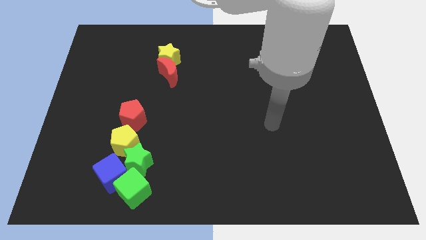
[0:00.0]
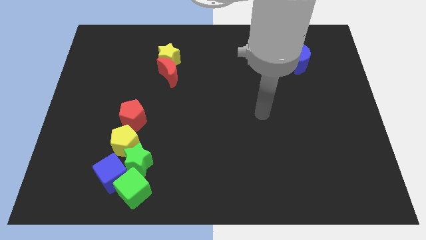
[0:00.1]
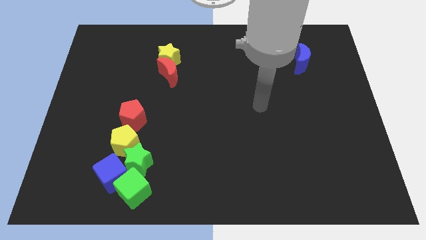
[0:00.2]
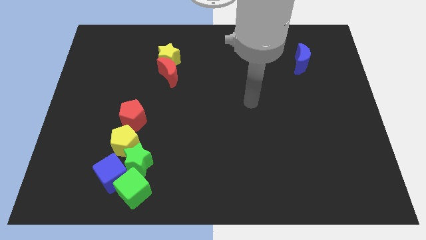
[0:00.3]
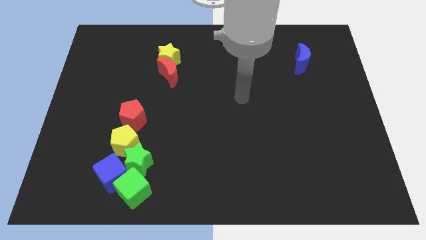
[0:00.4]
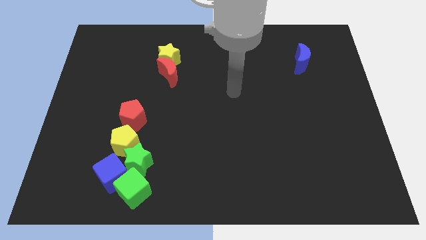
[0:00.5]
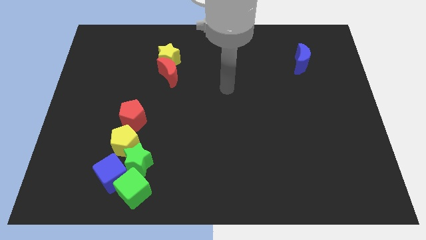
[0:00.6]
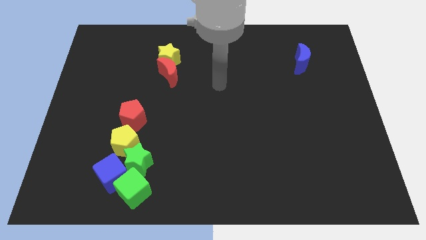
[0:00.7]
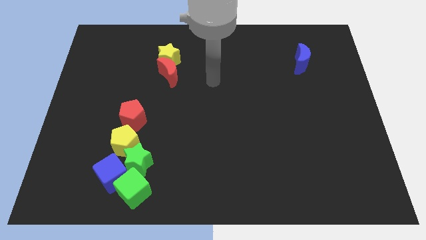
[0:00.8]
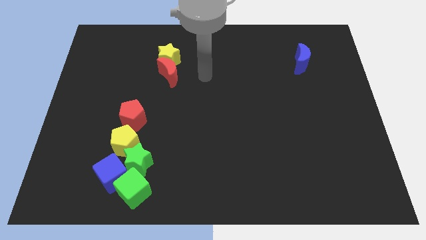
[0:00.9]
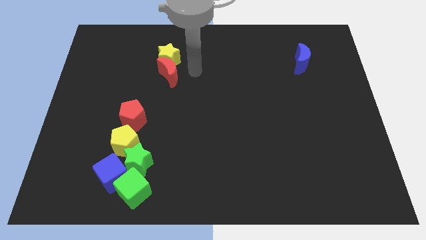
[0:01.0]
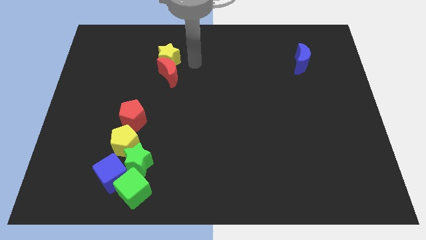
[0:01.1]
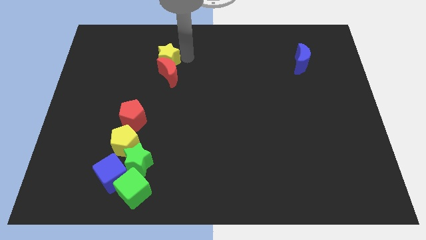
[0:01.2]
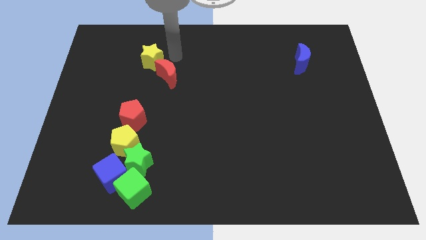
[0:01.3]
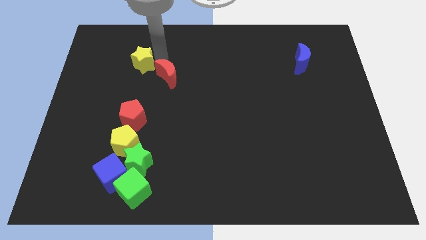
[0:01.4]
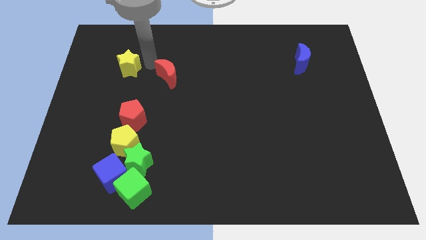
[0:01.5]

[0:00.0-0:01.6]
separate the red moon from the yellow star

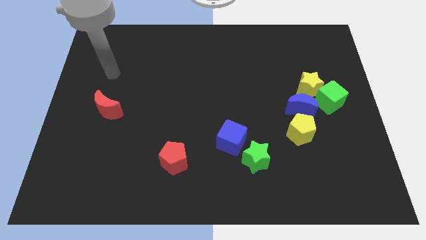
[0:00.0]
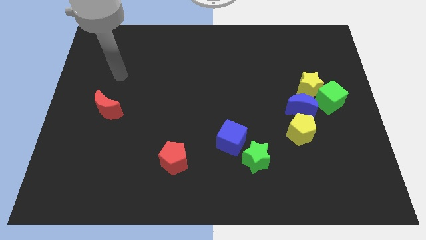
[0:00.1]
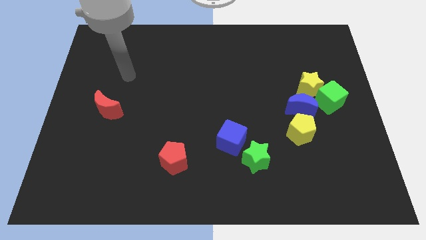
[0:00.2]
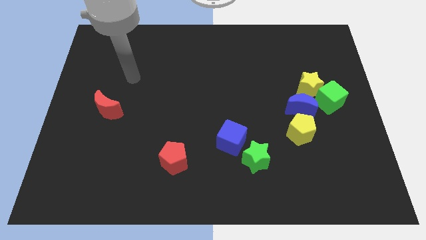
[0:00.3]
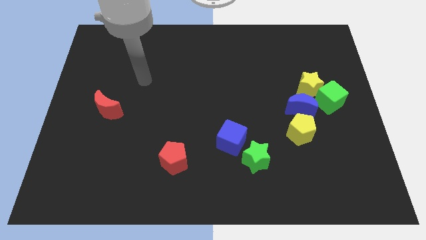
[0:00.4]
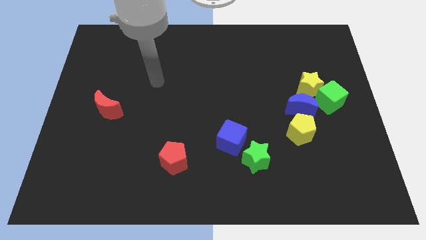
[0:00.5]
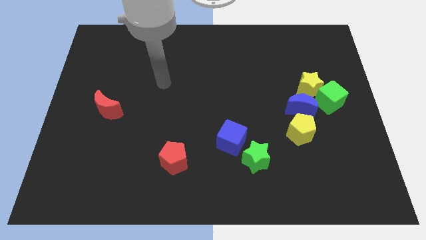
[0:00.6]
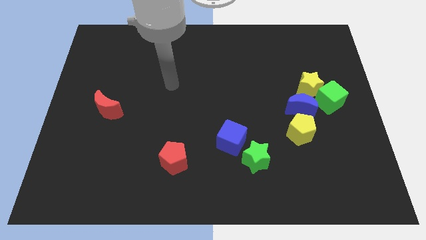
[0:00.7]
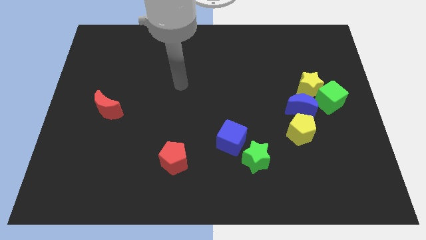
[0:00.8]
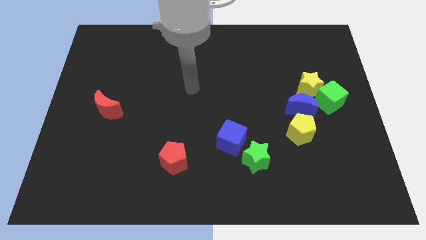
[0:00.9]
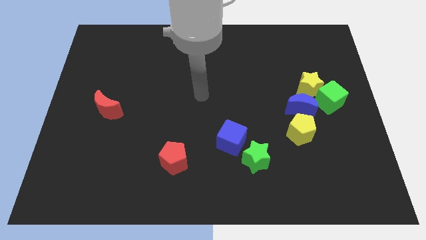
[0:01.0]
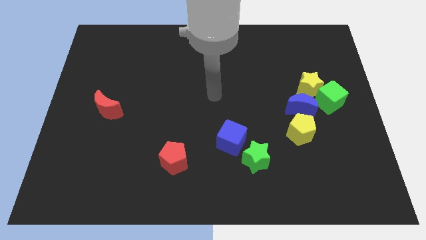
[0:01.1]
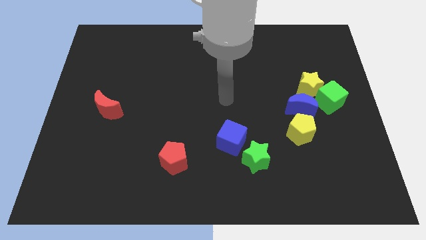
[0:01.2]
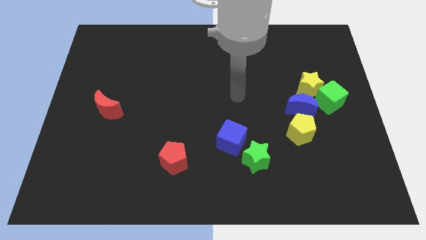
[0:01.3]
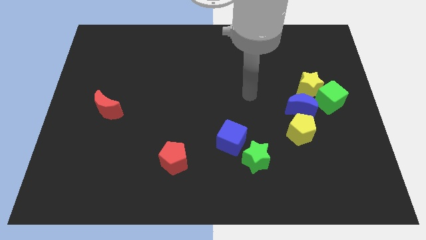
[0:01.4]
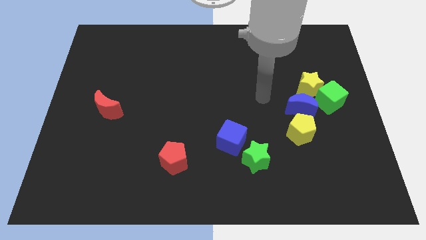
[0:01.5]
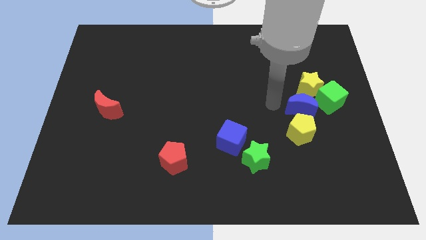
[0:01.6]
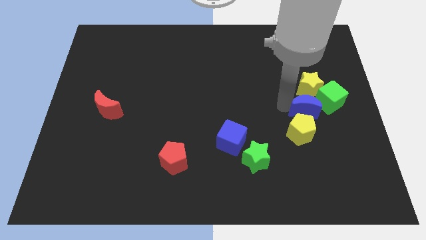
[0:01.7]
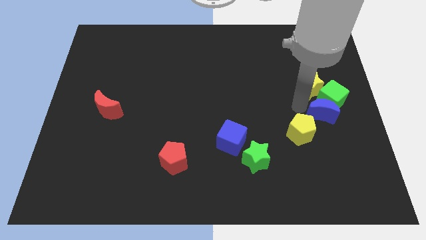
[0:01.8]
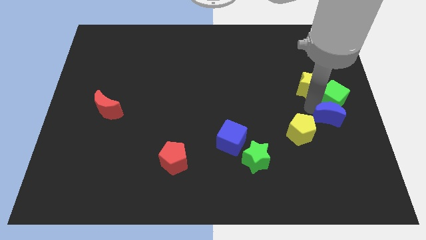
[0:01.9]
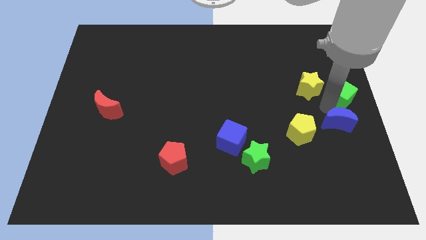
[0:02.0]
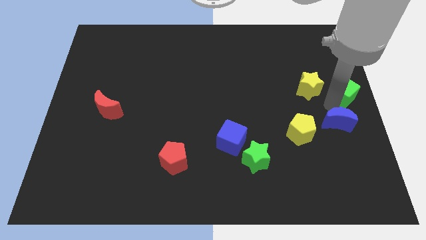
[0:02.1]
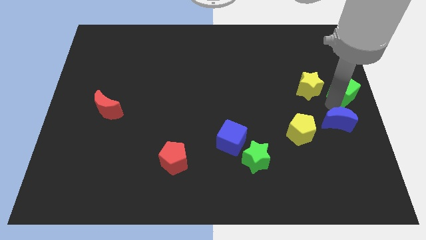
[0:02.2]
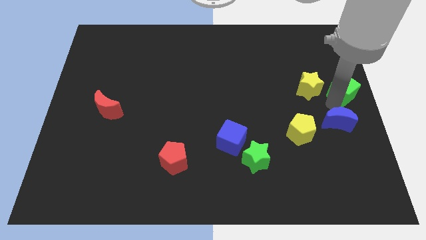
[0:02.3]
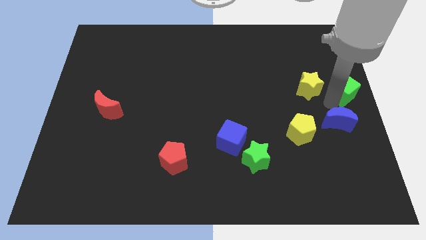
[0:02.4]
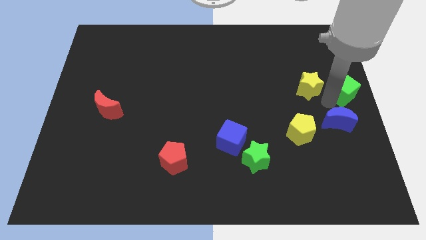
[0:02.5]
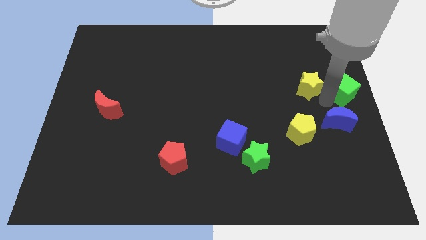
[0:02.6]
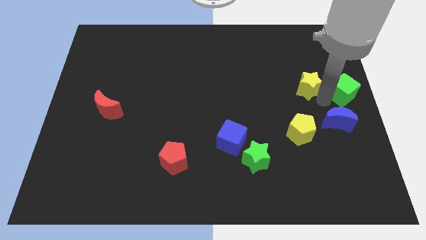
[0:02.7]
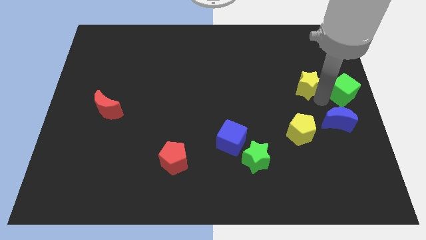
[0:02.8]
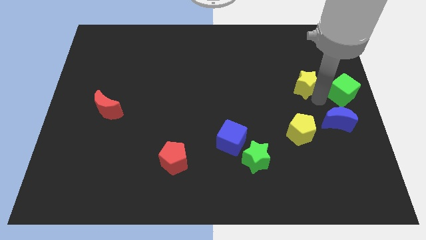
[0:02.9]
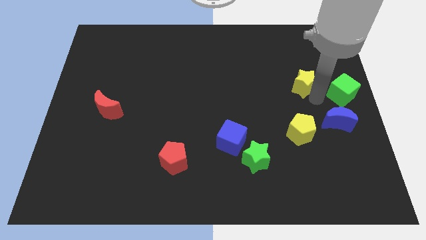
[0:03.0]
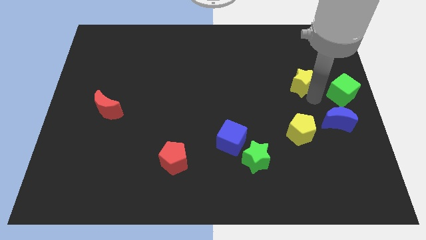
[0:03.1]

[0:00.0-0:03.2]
move the yellow star away from the green cube and blue moon

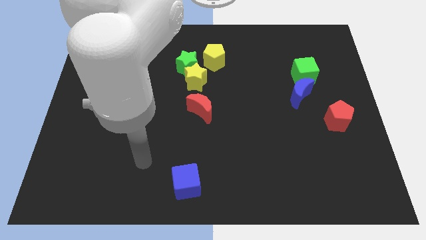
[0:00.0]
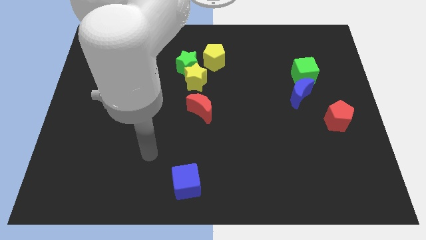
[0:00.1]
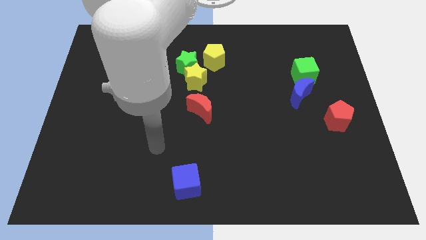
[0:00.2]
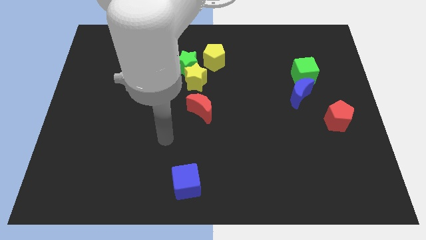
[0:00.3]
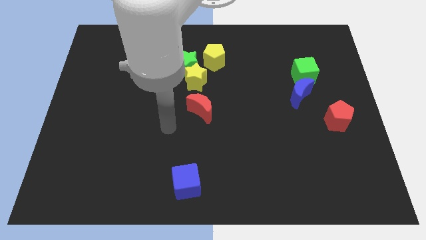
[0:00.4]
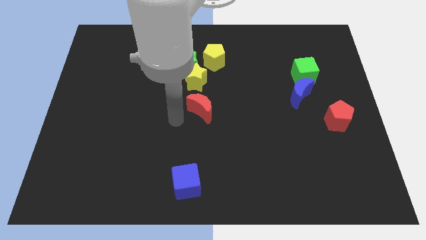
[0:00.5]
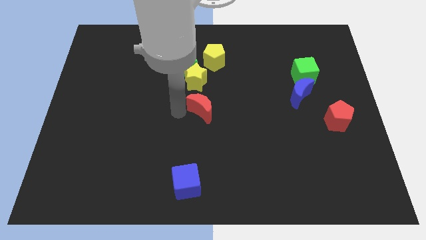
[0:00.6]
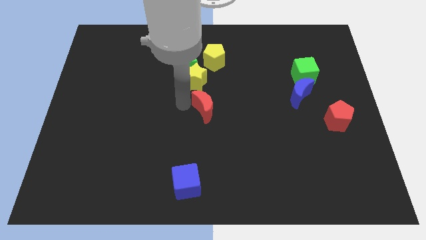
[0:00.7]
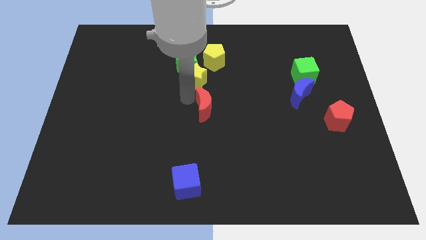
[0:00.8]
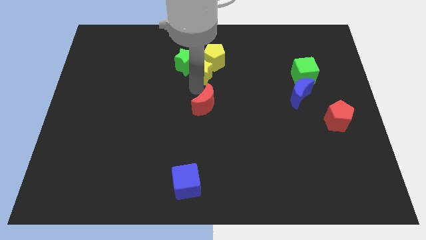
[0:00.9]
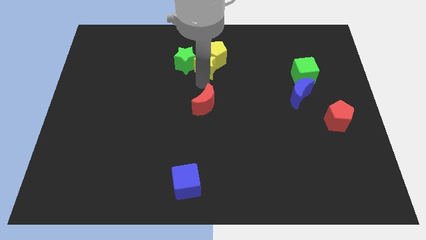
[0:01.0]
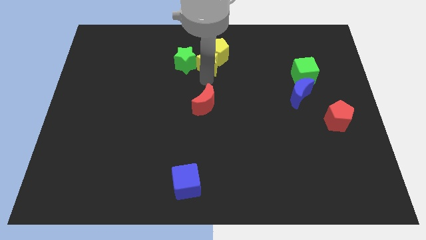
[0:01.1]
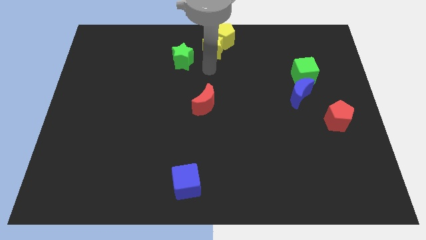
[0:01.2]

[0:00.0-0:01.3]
pull the green star apart from the yellow star and yellow pentagon

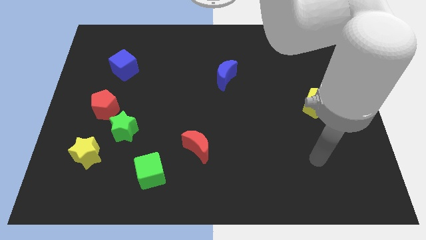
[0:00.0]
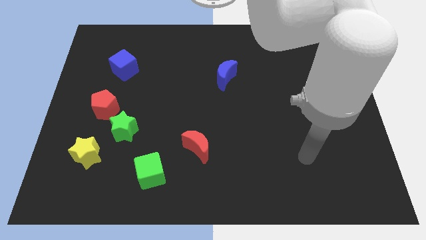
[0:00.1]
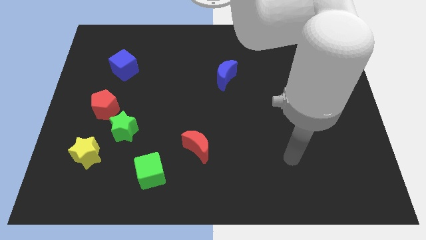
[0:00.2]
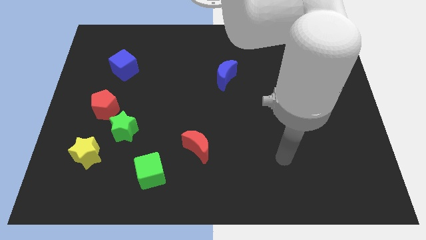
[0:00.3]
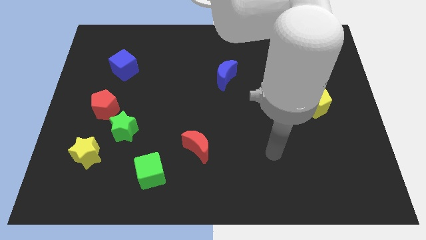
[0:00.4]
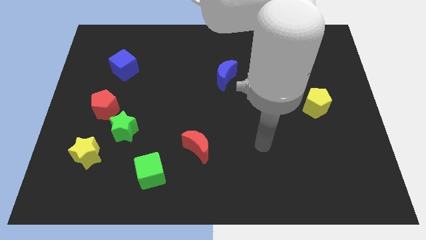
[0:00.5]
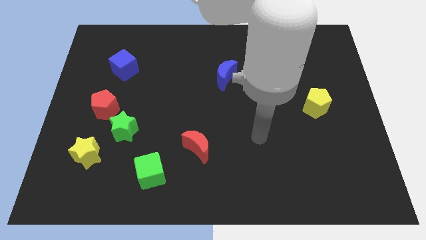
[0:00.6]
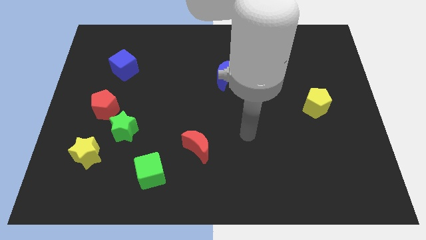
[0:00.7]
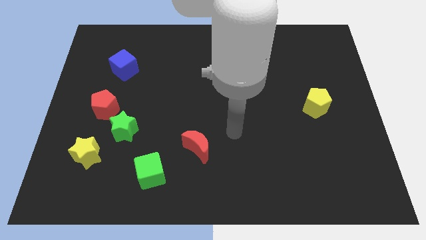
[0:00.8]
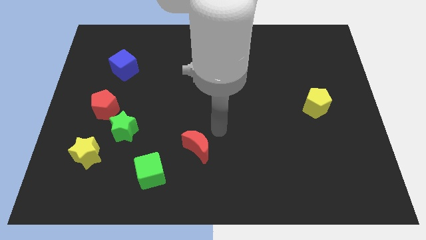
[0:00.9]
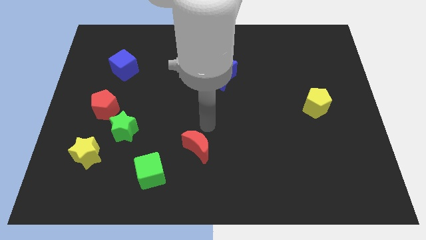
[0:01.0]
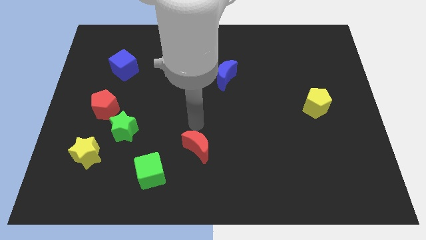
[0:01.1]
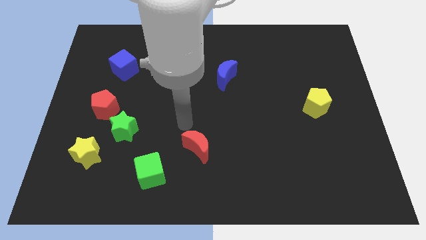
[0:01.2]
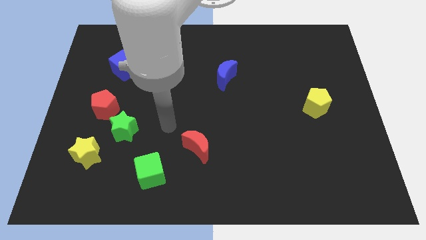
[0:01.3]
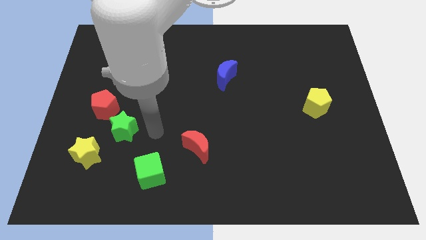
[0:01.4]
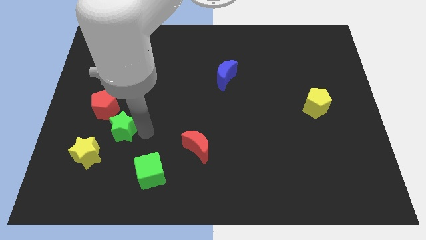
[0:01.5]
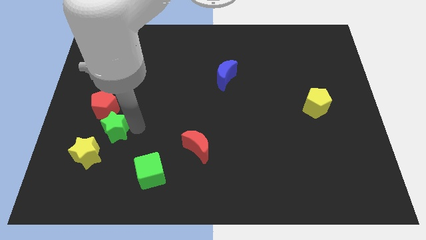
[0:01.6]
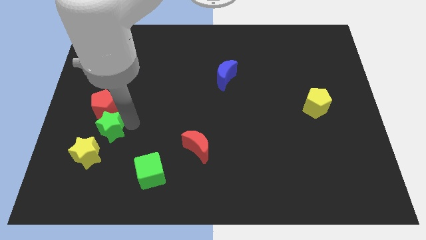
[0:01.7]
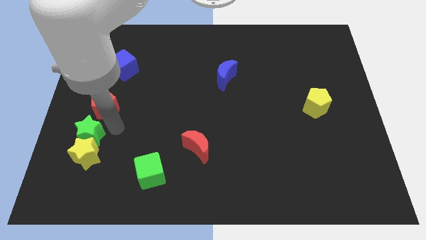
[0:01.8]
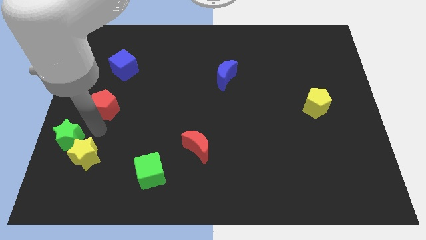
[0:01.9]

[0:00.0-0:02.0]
pull the red pentagon apart from the green star

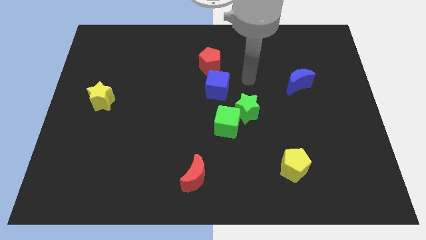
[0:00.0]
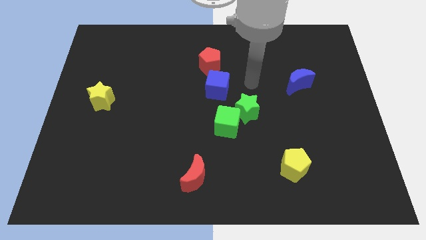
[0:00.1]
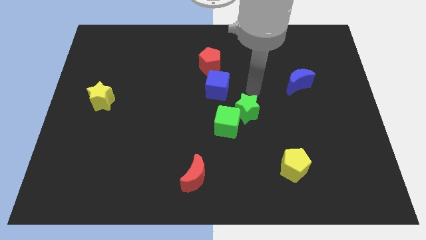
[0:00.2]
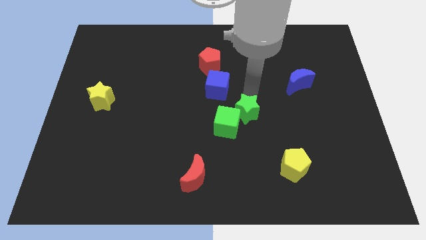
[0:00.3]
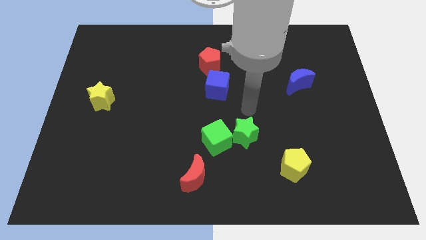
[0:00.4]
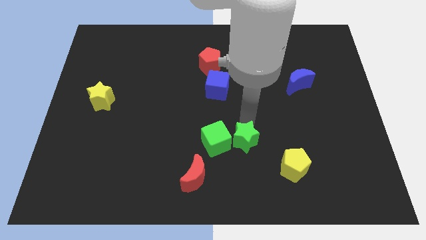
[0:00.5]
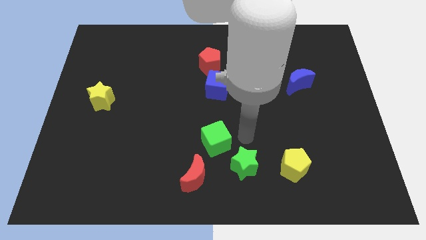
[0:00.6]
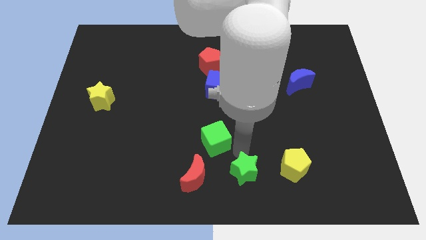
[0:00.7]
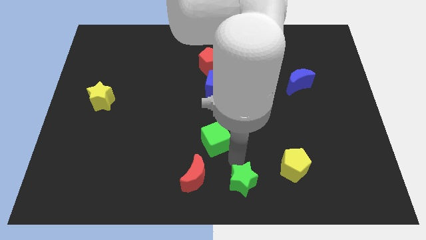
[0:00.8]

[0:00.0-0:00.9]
separate the green cube from the green star

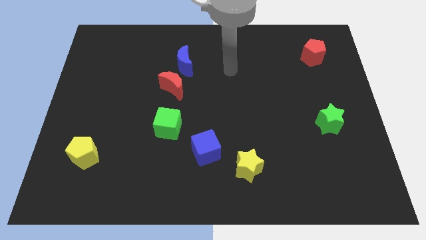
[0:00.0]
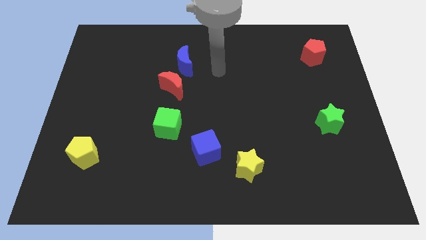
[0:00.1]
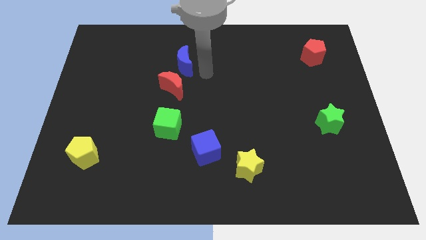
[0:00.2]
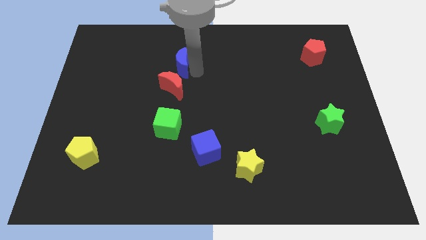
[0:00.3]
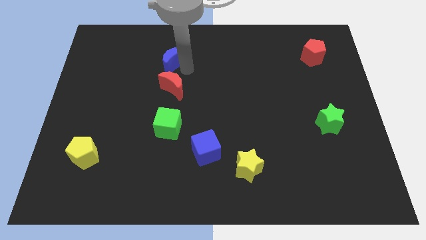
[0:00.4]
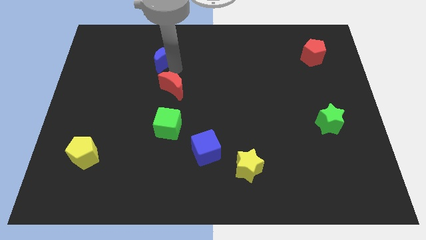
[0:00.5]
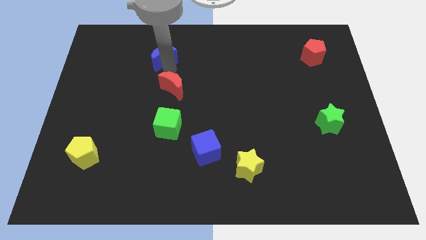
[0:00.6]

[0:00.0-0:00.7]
separate the red moon from the blue moon
